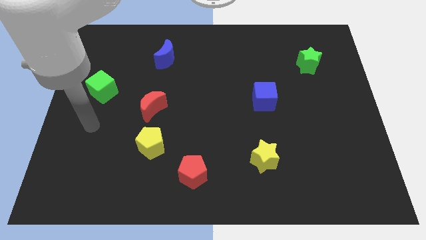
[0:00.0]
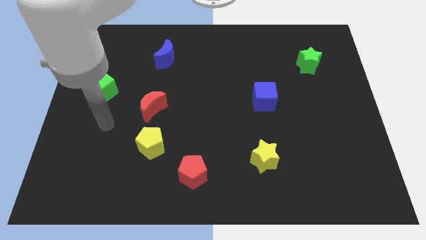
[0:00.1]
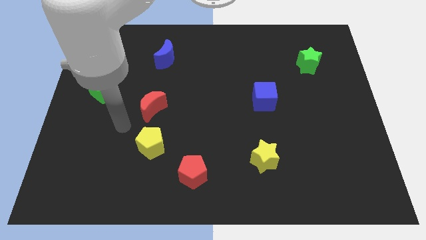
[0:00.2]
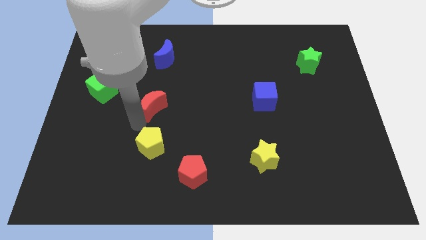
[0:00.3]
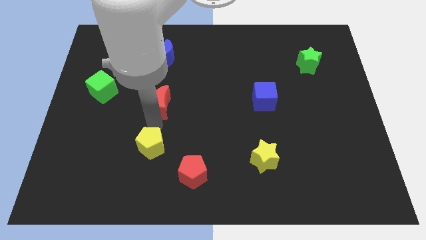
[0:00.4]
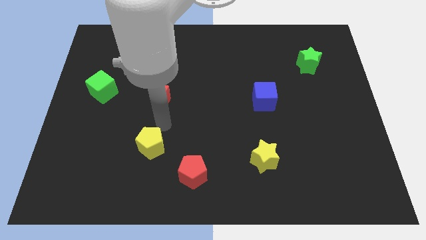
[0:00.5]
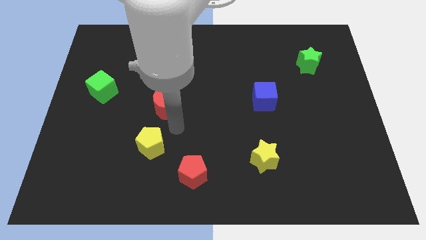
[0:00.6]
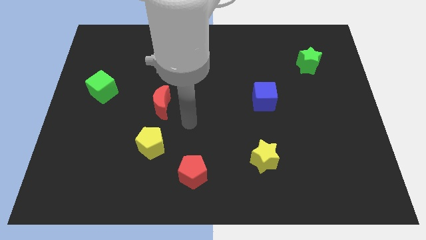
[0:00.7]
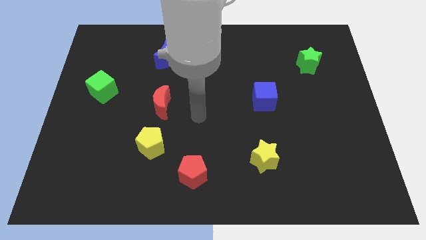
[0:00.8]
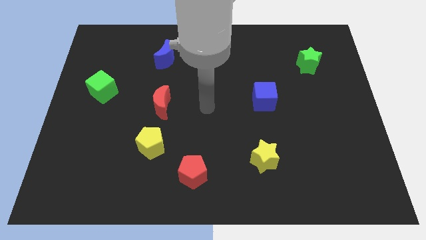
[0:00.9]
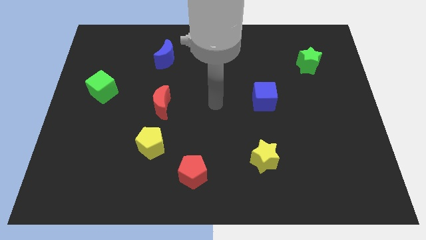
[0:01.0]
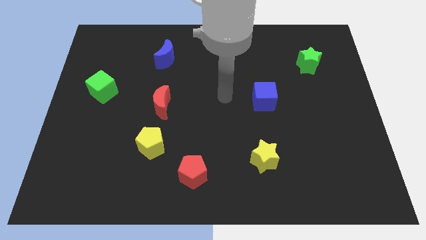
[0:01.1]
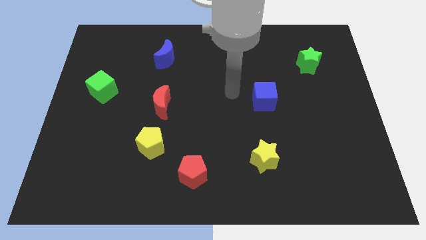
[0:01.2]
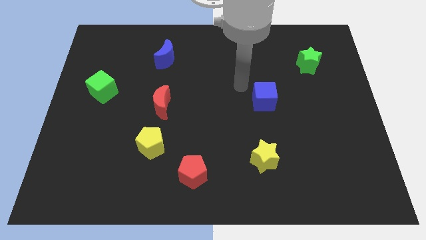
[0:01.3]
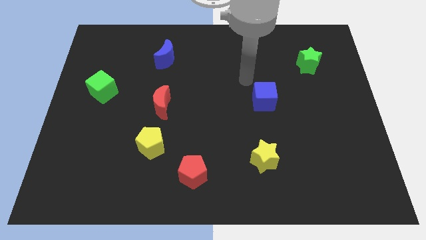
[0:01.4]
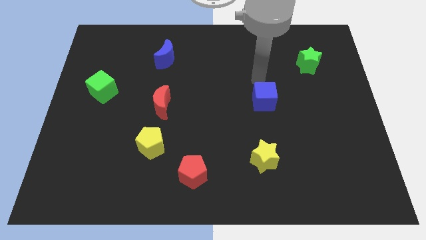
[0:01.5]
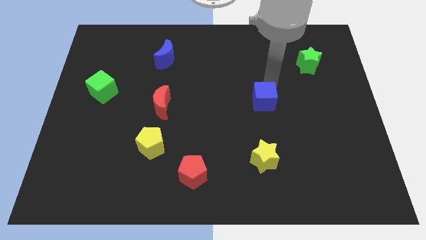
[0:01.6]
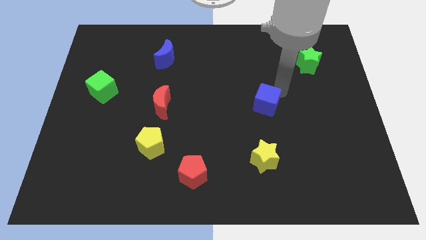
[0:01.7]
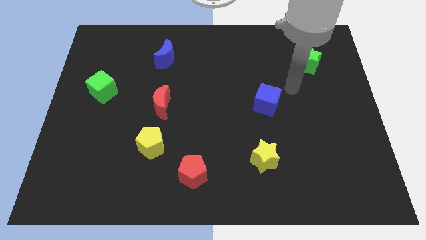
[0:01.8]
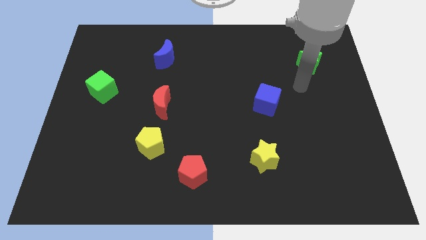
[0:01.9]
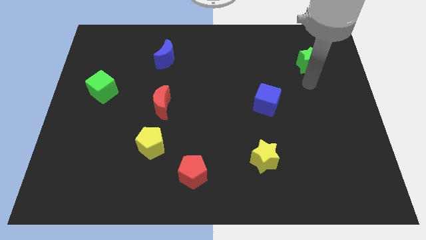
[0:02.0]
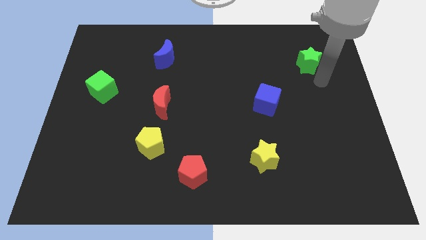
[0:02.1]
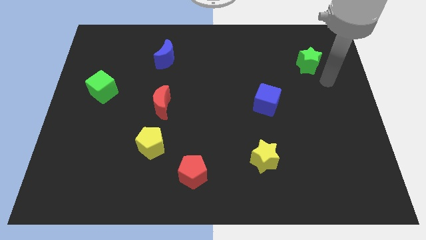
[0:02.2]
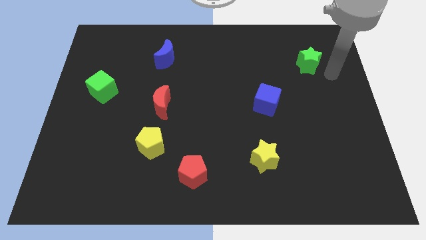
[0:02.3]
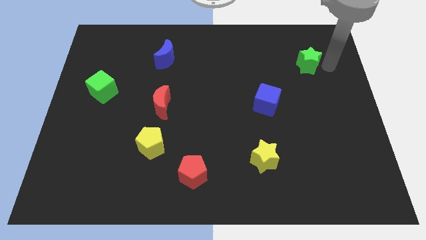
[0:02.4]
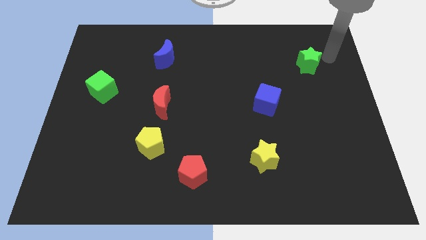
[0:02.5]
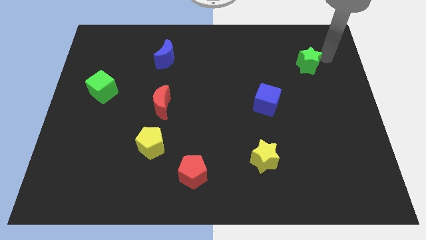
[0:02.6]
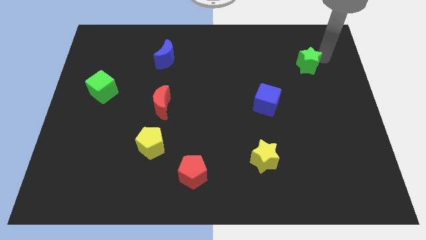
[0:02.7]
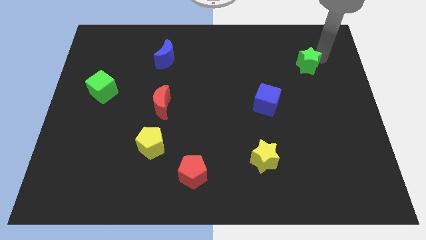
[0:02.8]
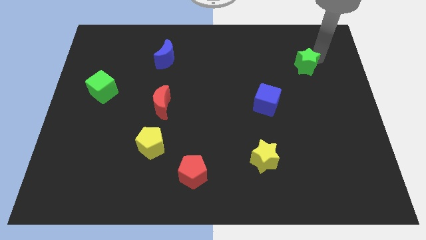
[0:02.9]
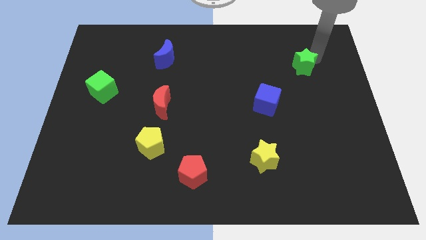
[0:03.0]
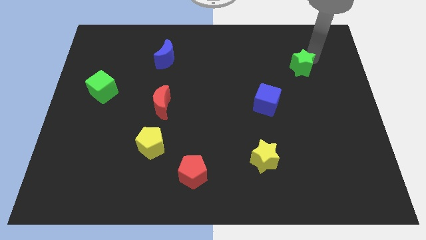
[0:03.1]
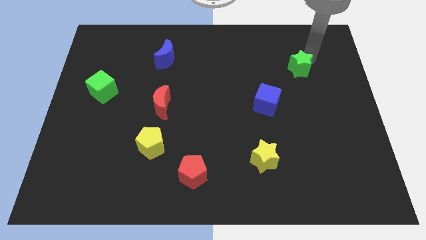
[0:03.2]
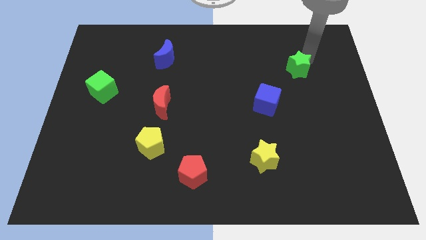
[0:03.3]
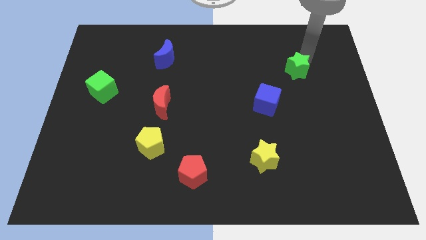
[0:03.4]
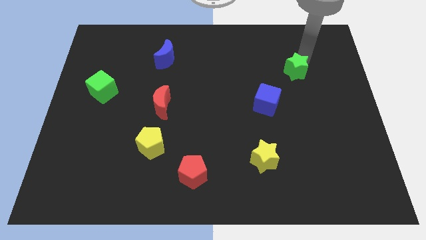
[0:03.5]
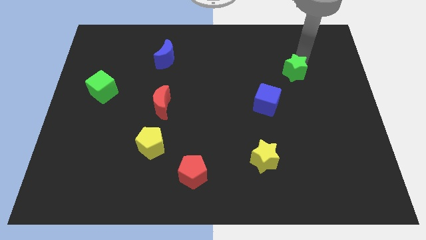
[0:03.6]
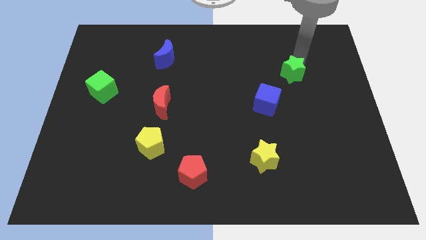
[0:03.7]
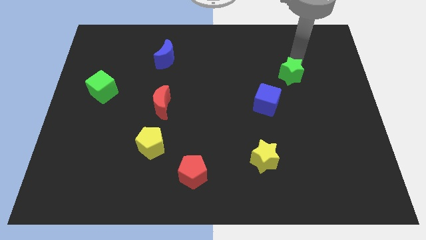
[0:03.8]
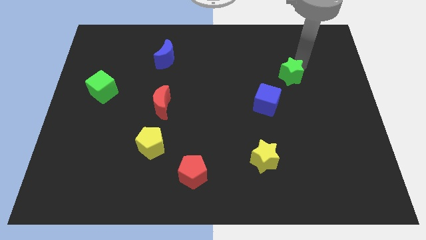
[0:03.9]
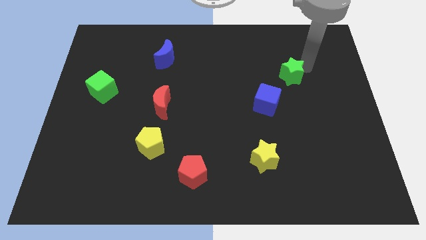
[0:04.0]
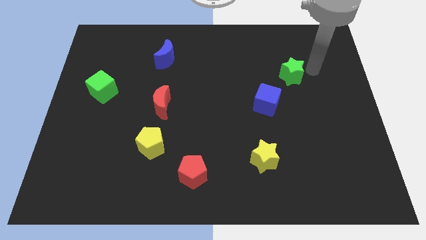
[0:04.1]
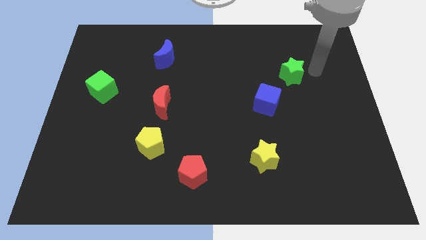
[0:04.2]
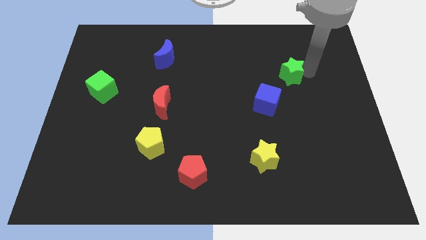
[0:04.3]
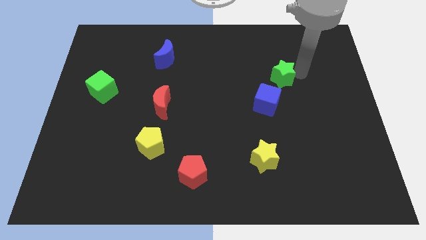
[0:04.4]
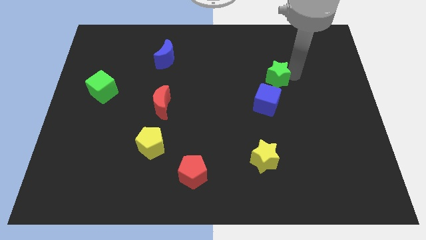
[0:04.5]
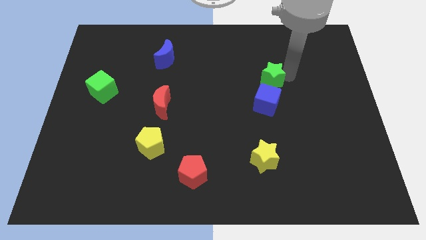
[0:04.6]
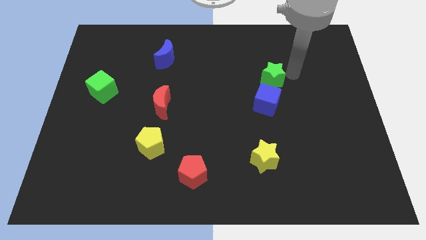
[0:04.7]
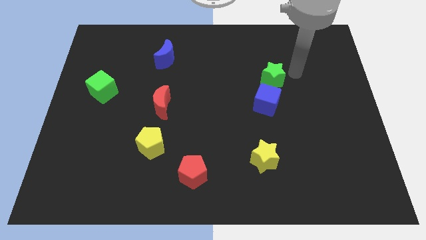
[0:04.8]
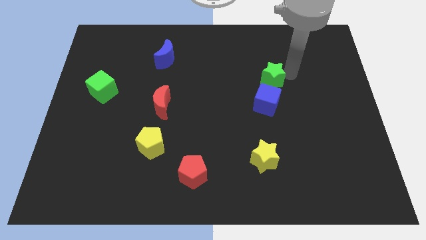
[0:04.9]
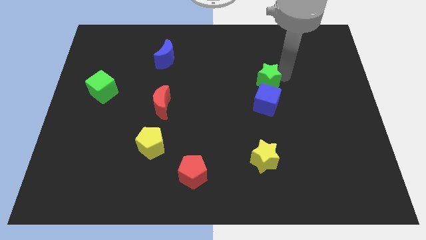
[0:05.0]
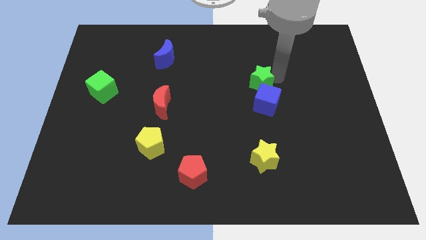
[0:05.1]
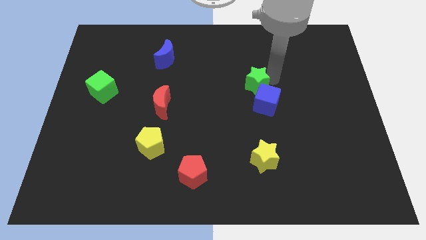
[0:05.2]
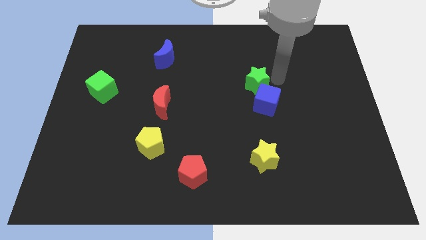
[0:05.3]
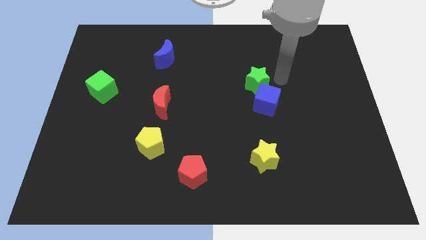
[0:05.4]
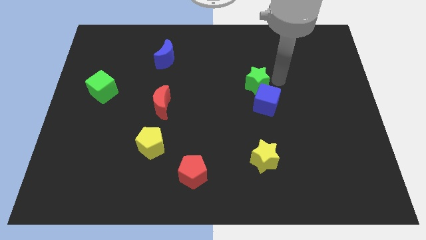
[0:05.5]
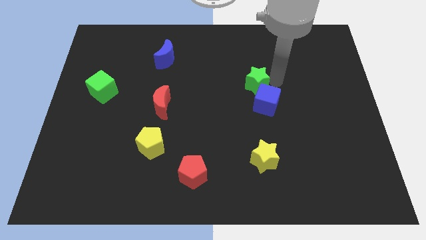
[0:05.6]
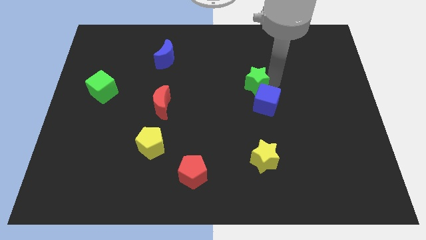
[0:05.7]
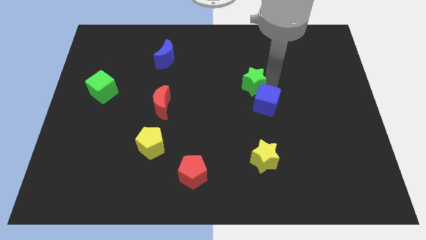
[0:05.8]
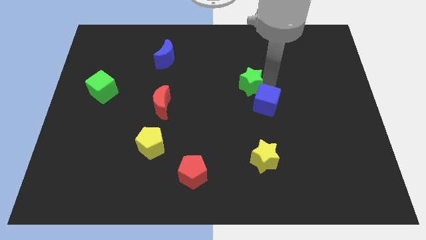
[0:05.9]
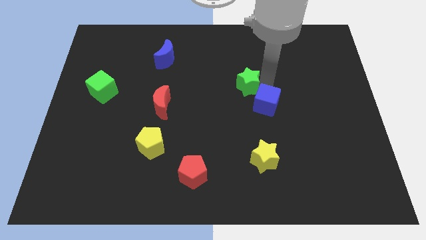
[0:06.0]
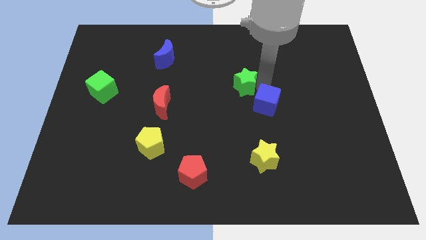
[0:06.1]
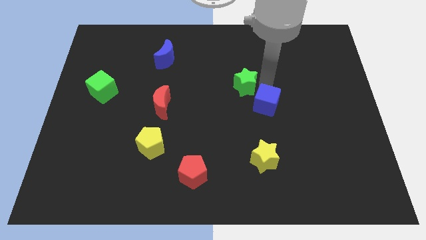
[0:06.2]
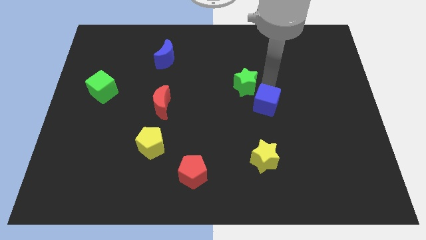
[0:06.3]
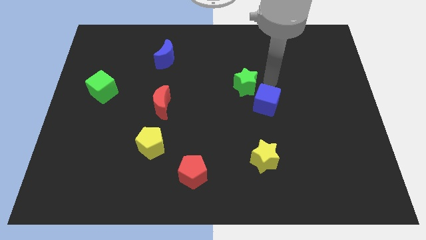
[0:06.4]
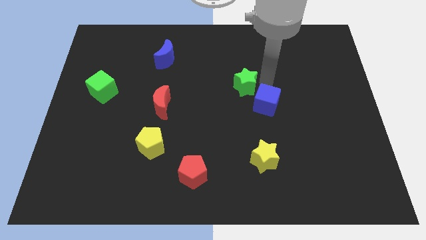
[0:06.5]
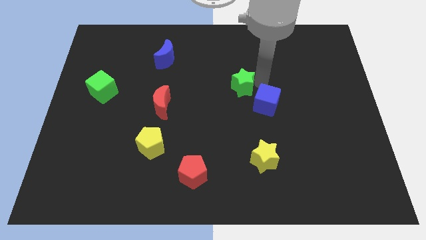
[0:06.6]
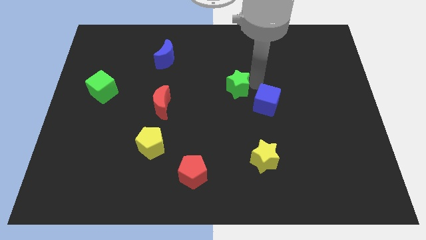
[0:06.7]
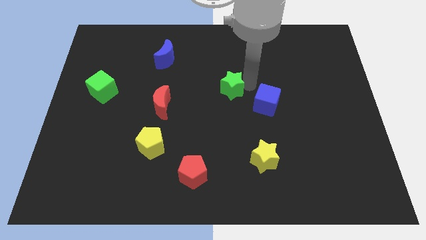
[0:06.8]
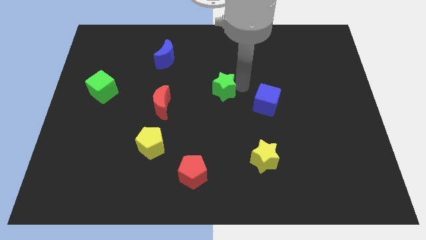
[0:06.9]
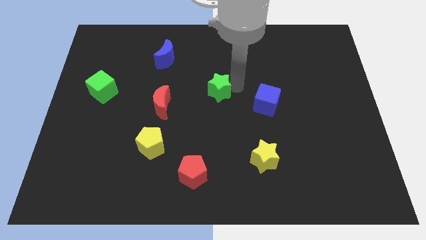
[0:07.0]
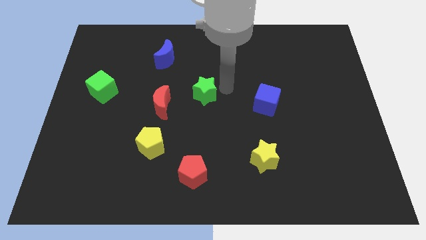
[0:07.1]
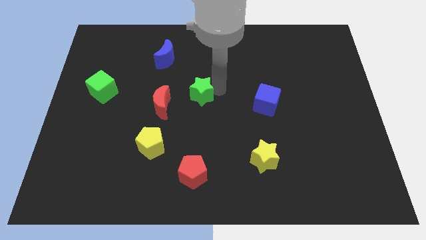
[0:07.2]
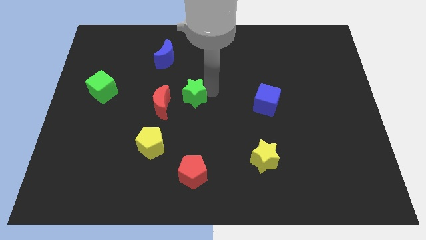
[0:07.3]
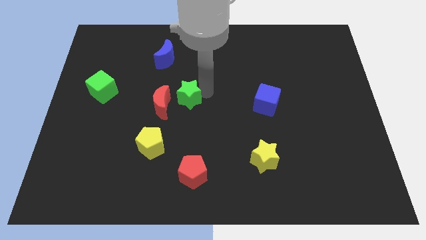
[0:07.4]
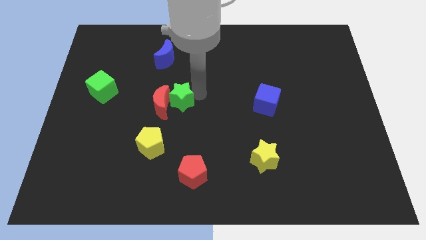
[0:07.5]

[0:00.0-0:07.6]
move the green star next to the red moon
